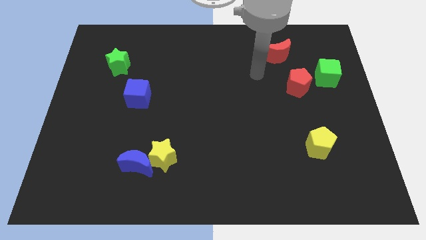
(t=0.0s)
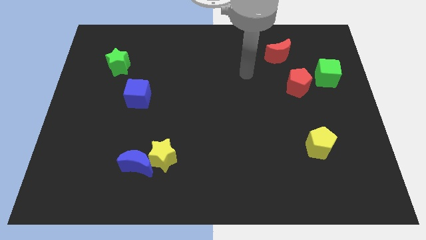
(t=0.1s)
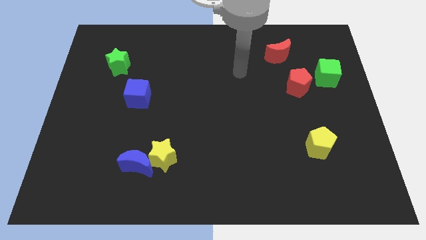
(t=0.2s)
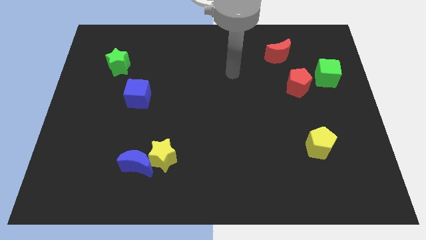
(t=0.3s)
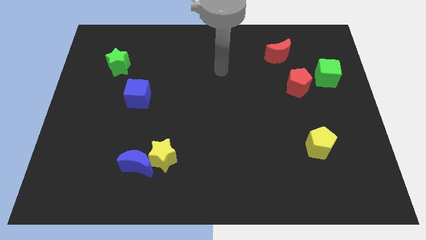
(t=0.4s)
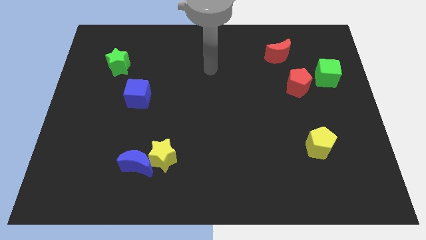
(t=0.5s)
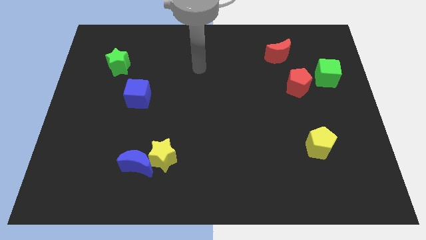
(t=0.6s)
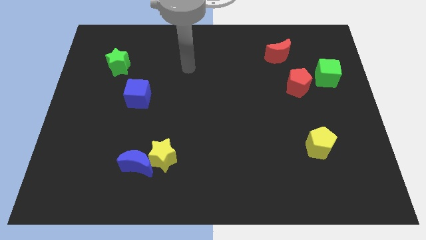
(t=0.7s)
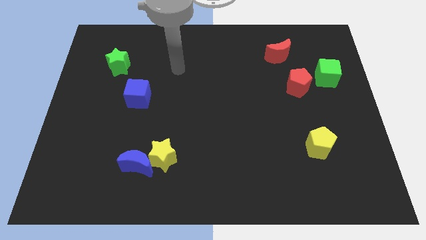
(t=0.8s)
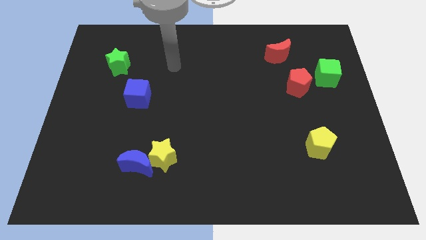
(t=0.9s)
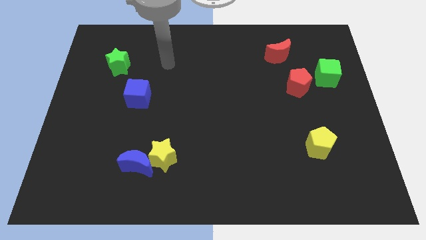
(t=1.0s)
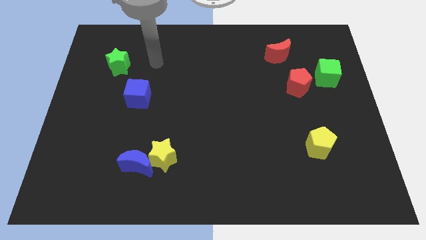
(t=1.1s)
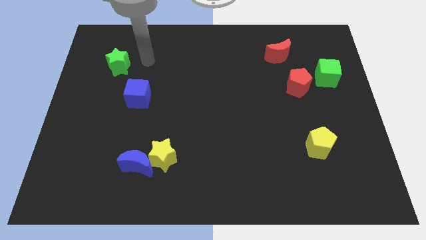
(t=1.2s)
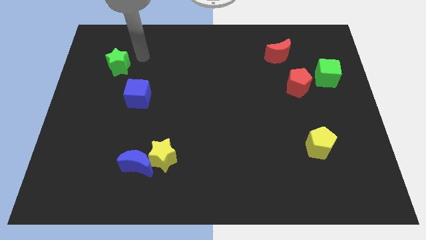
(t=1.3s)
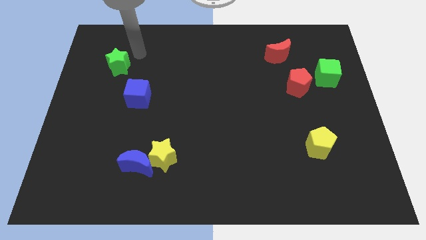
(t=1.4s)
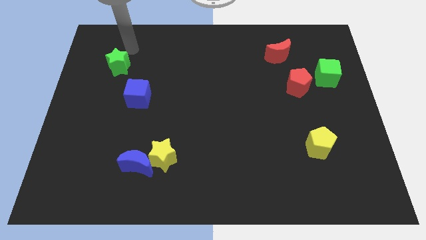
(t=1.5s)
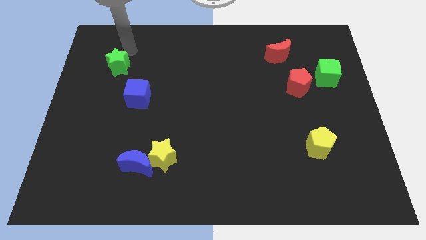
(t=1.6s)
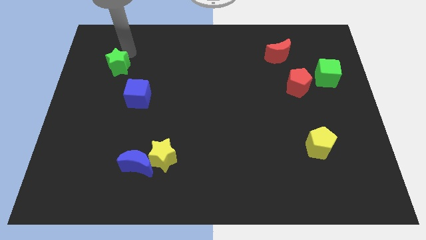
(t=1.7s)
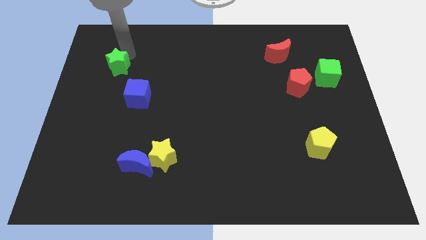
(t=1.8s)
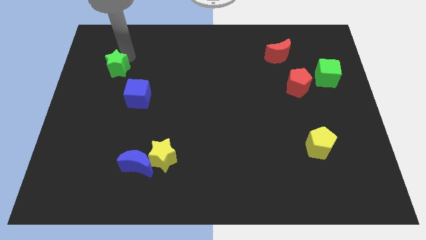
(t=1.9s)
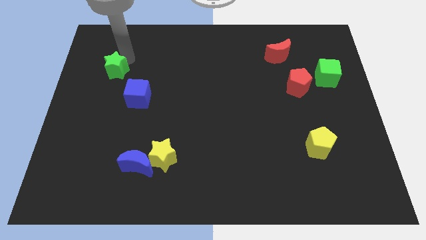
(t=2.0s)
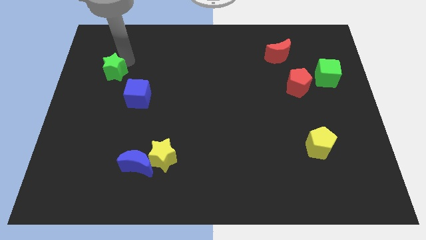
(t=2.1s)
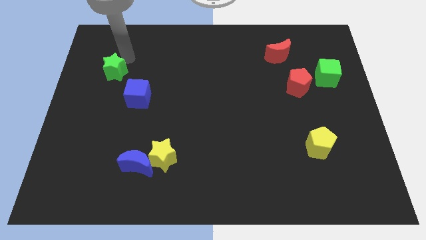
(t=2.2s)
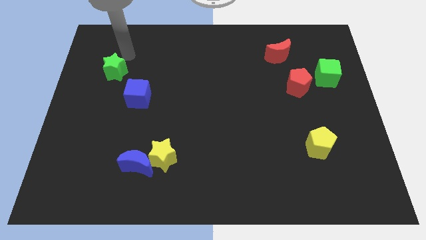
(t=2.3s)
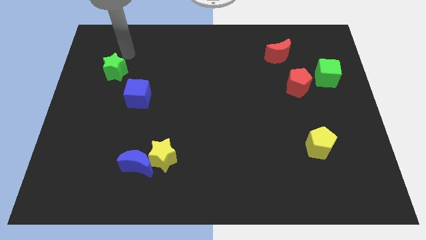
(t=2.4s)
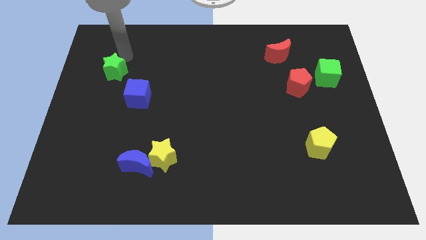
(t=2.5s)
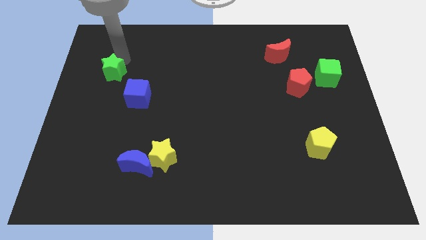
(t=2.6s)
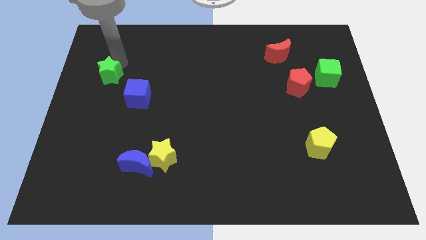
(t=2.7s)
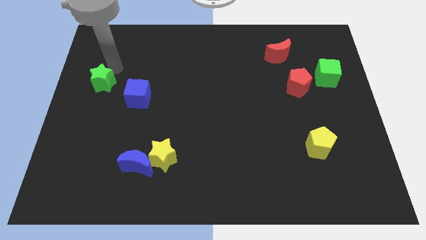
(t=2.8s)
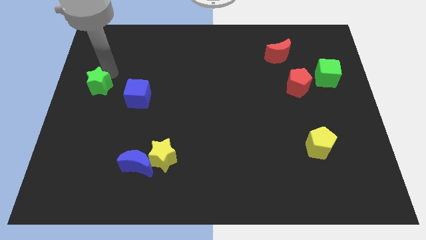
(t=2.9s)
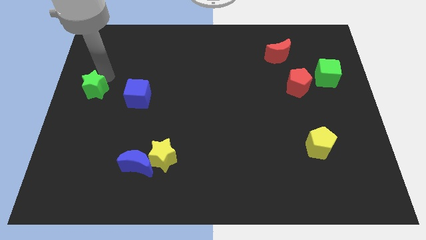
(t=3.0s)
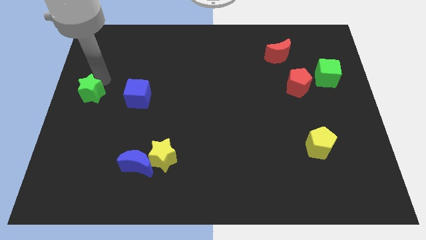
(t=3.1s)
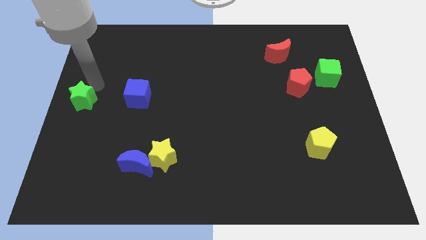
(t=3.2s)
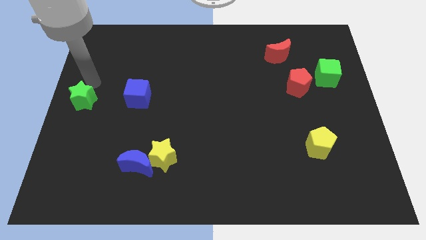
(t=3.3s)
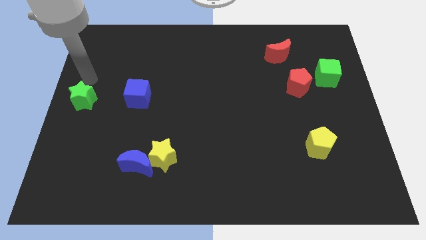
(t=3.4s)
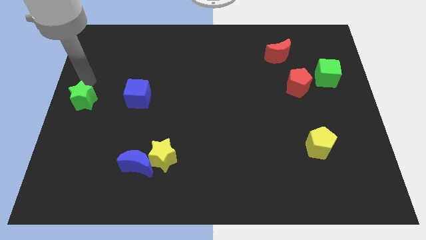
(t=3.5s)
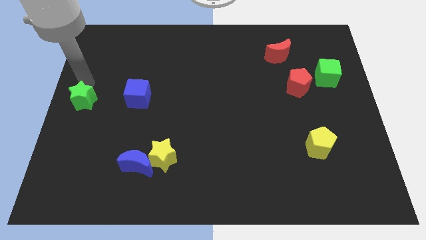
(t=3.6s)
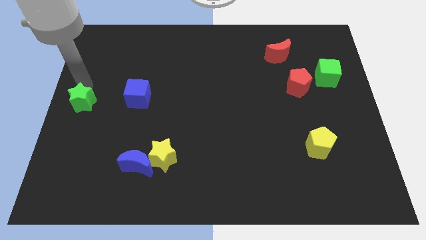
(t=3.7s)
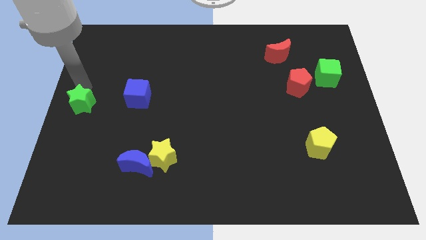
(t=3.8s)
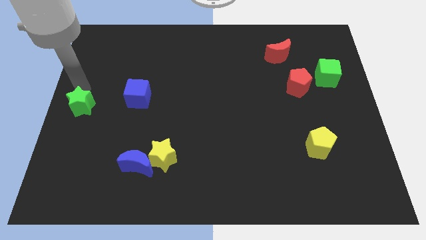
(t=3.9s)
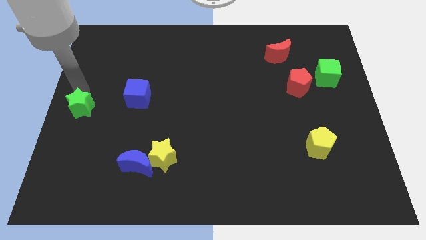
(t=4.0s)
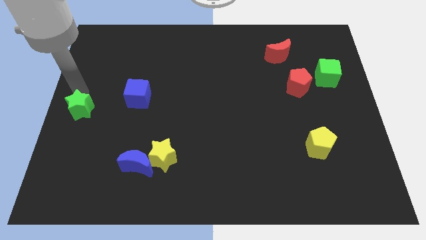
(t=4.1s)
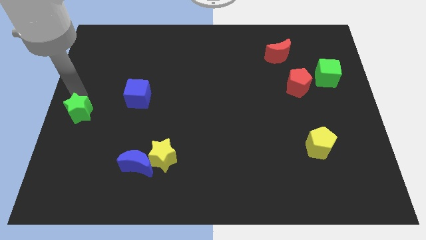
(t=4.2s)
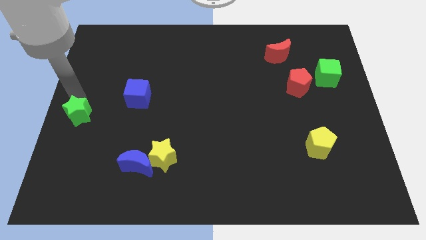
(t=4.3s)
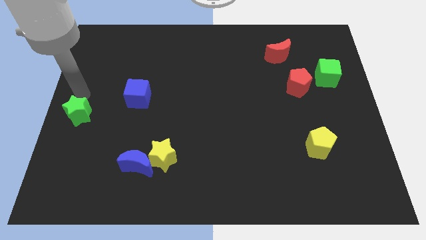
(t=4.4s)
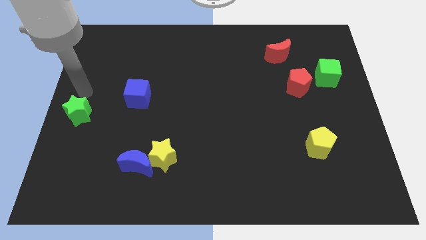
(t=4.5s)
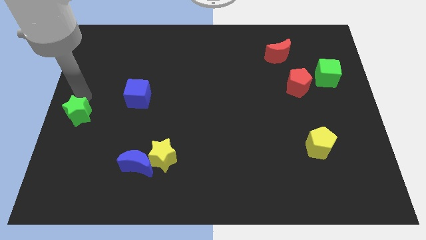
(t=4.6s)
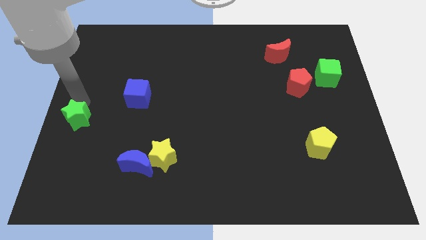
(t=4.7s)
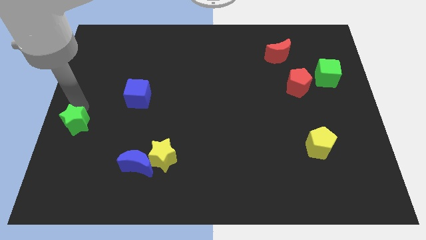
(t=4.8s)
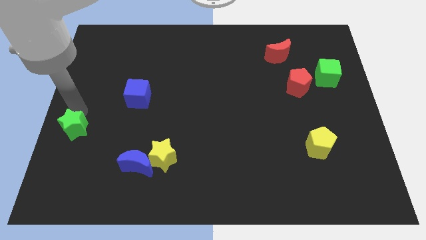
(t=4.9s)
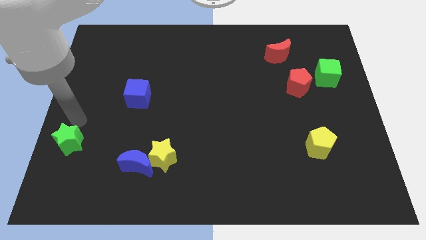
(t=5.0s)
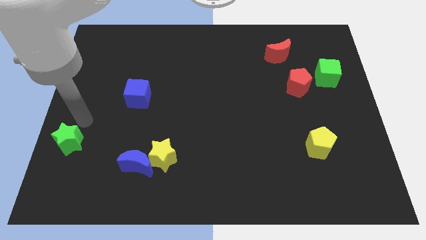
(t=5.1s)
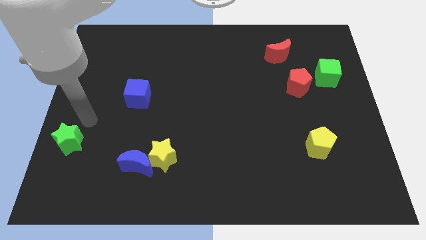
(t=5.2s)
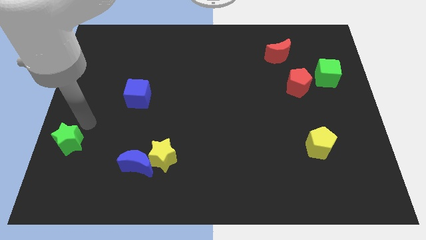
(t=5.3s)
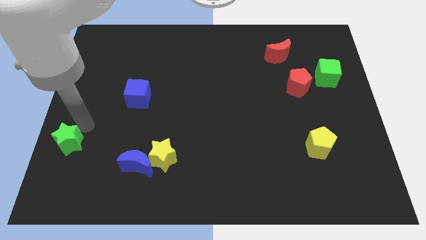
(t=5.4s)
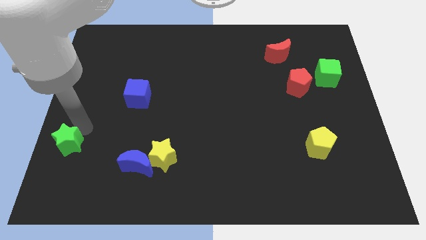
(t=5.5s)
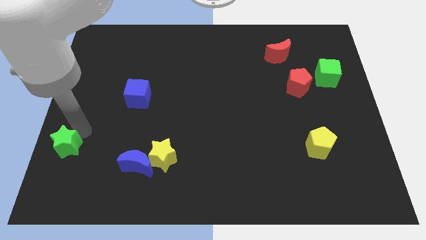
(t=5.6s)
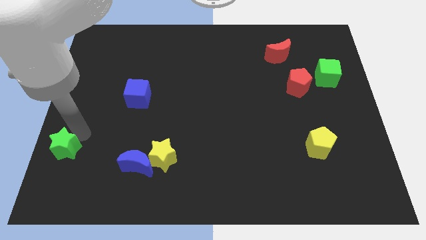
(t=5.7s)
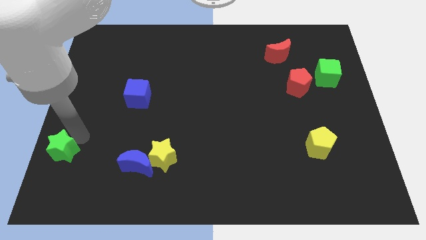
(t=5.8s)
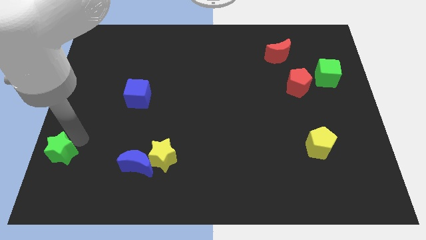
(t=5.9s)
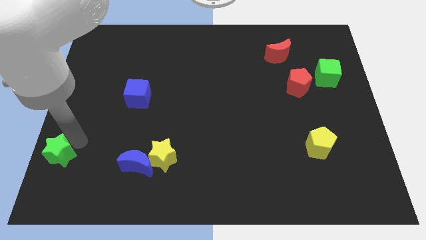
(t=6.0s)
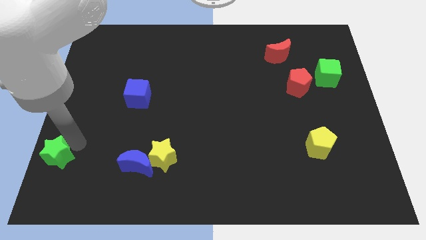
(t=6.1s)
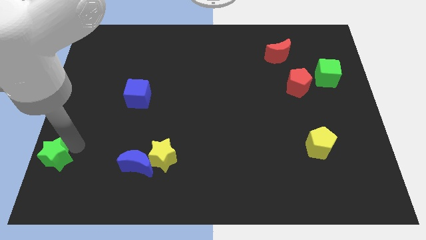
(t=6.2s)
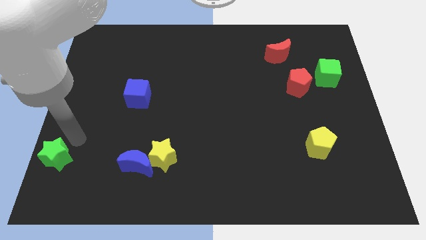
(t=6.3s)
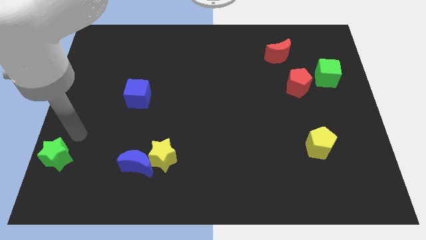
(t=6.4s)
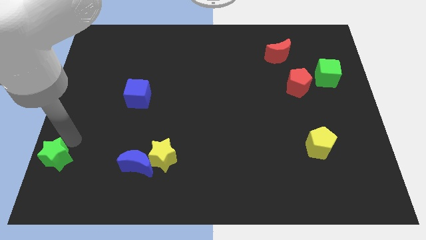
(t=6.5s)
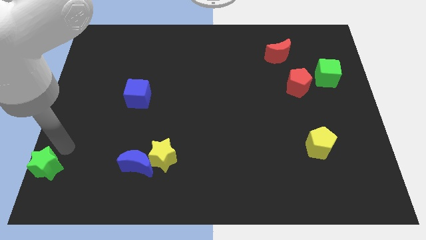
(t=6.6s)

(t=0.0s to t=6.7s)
push the green star to the bottom left of the board
